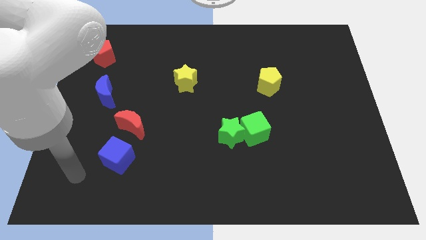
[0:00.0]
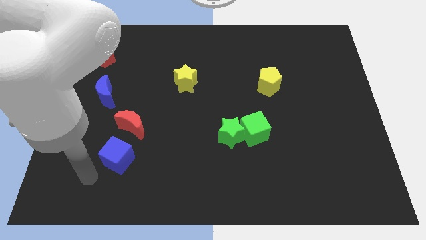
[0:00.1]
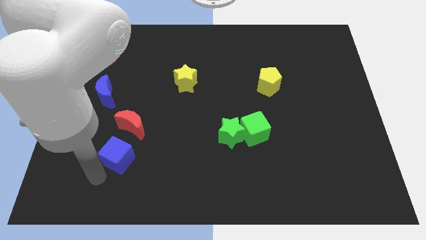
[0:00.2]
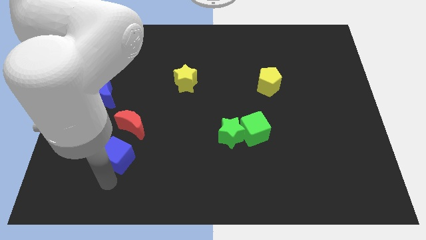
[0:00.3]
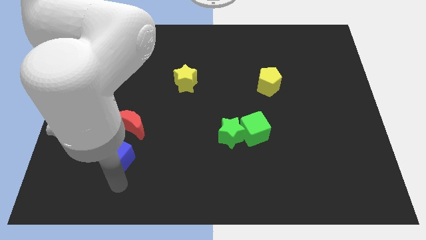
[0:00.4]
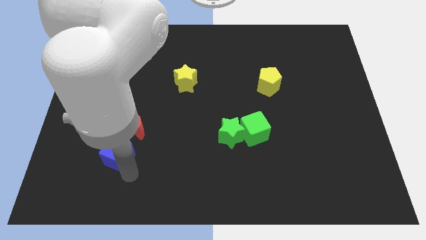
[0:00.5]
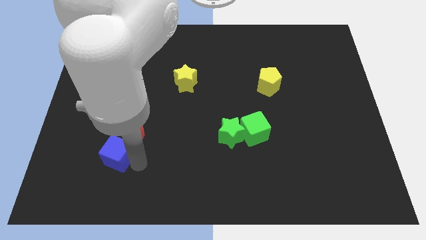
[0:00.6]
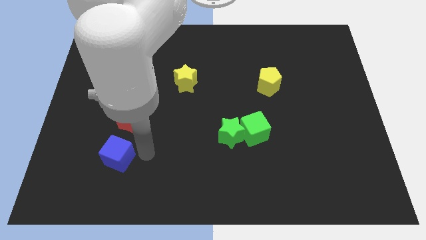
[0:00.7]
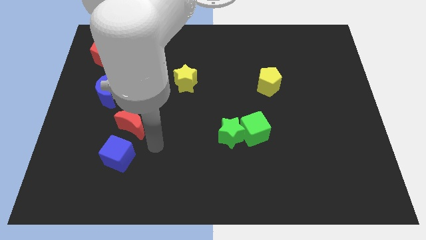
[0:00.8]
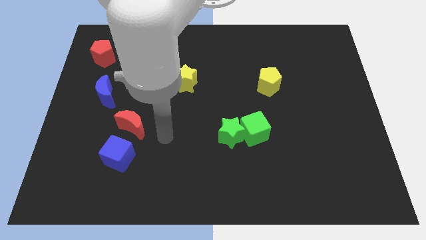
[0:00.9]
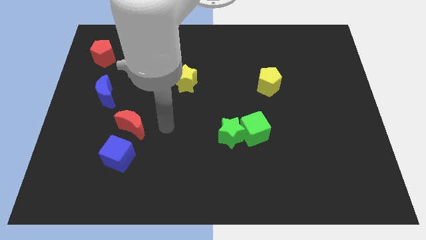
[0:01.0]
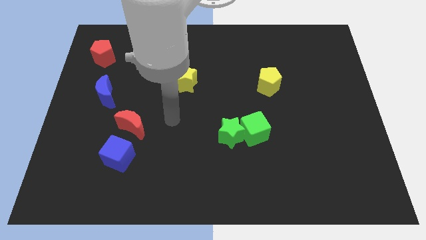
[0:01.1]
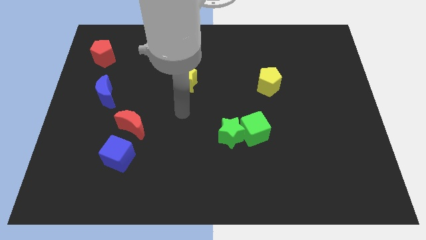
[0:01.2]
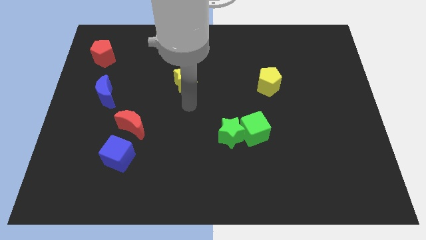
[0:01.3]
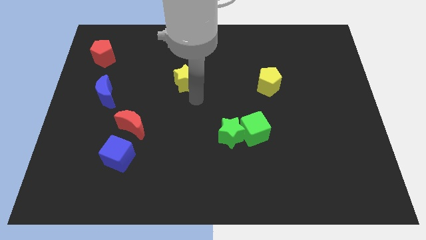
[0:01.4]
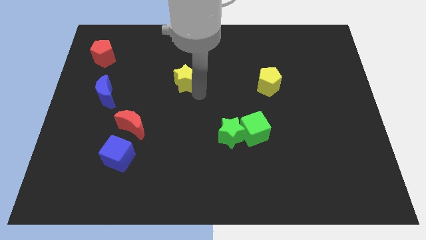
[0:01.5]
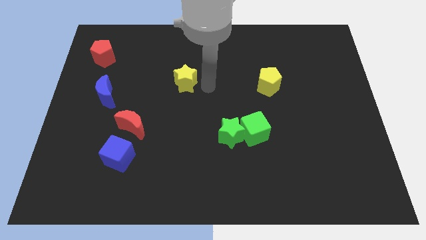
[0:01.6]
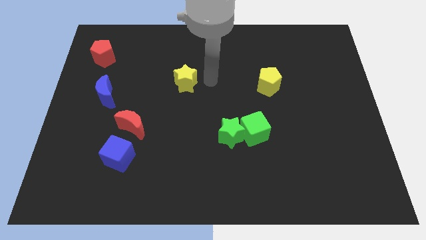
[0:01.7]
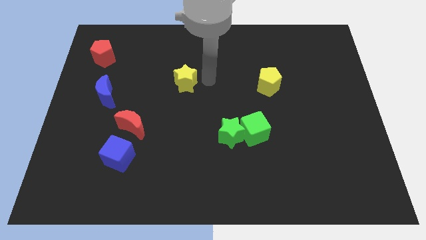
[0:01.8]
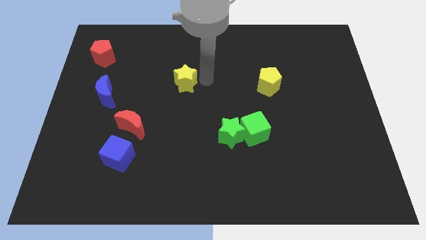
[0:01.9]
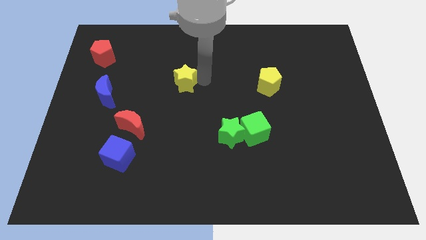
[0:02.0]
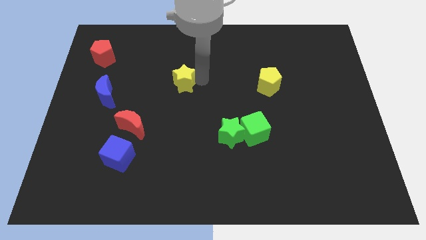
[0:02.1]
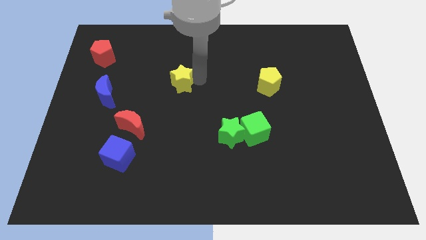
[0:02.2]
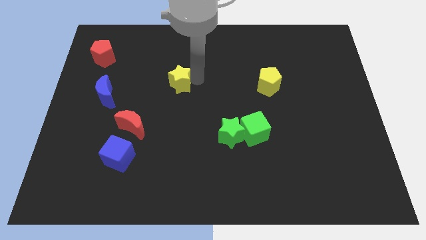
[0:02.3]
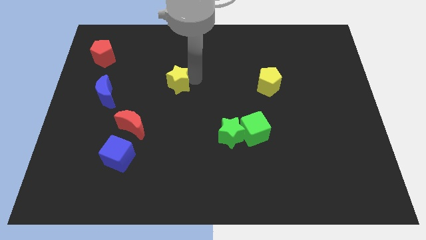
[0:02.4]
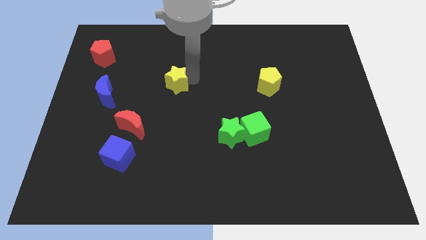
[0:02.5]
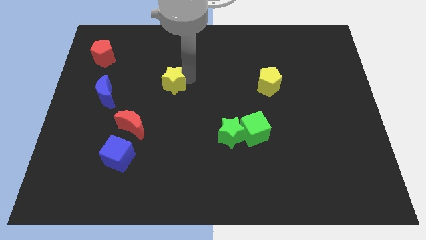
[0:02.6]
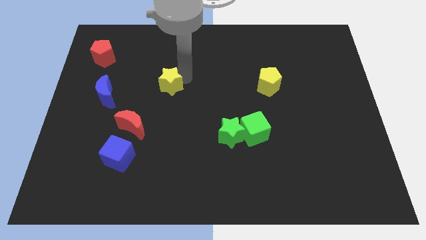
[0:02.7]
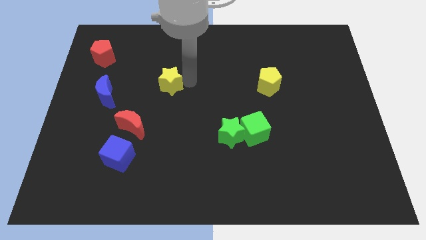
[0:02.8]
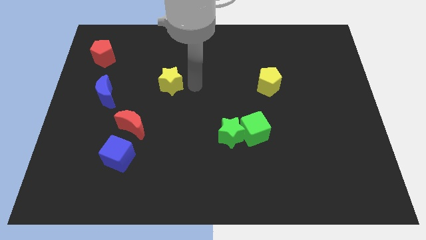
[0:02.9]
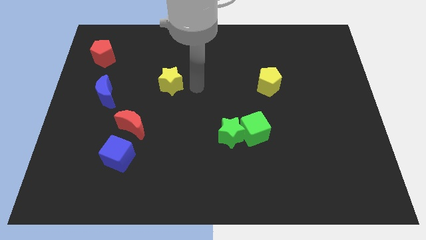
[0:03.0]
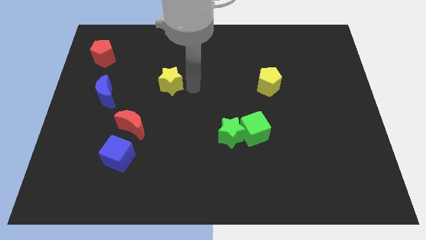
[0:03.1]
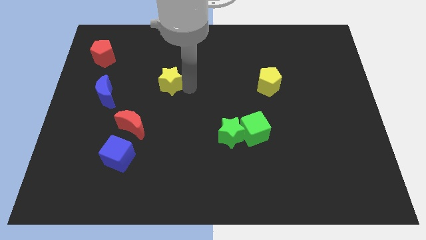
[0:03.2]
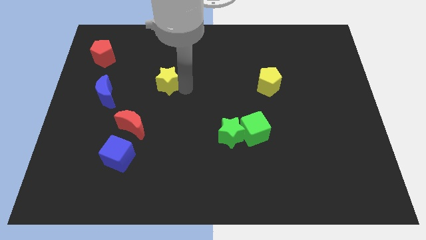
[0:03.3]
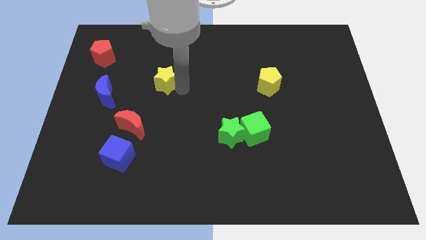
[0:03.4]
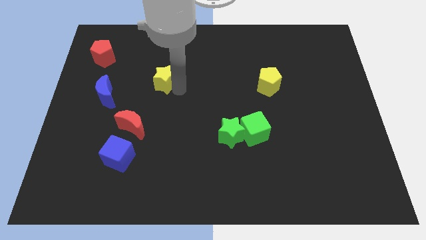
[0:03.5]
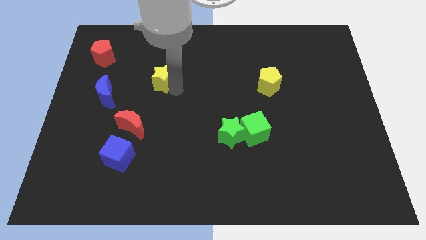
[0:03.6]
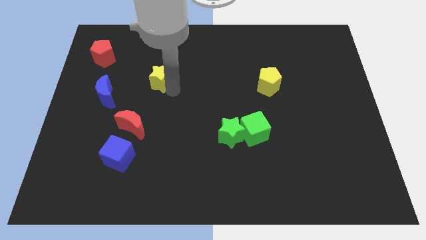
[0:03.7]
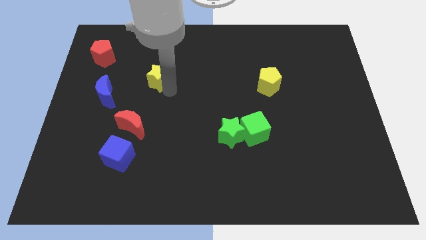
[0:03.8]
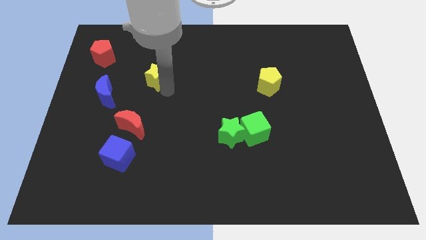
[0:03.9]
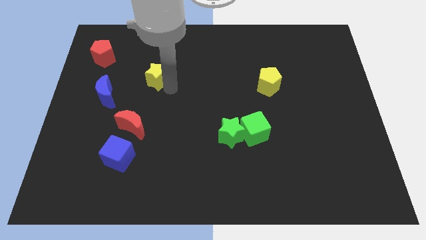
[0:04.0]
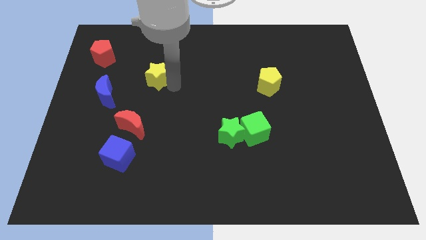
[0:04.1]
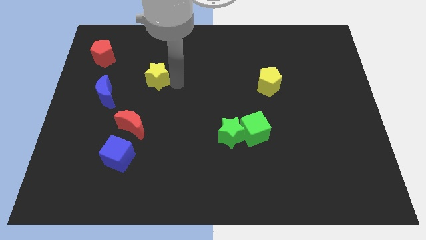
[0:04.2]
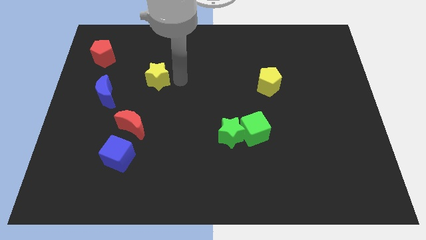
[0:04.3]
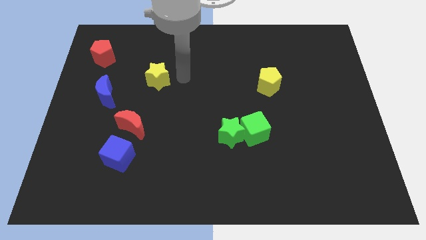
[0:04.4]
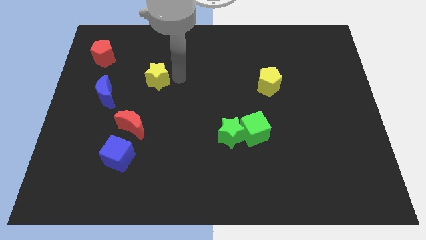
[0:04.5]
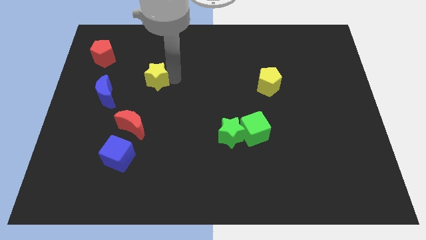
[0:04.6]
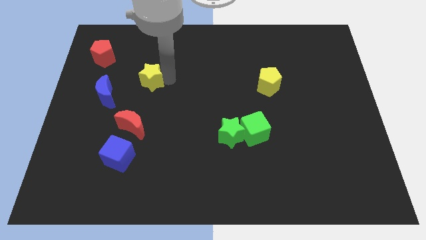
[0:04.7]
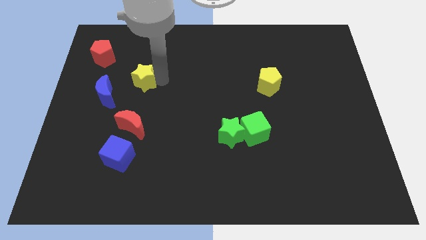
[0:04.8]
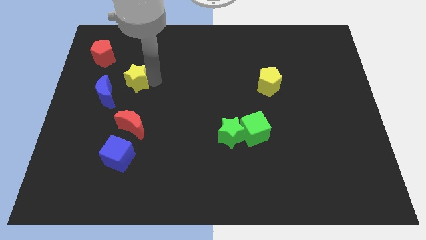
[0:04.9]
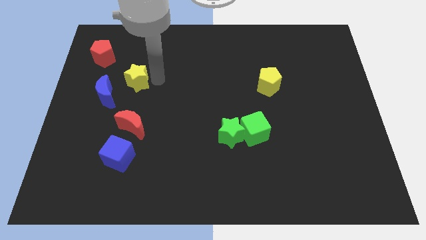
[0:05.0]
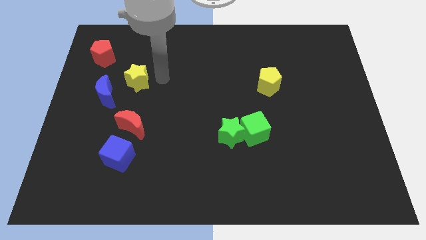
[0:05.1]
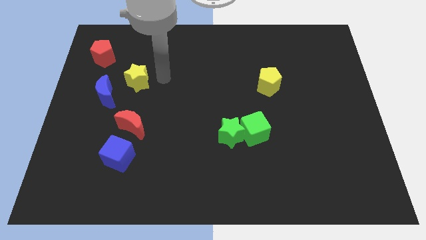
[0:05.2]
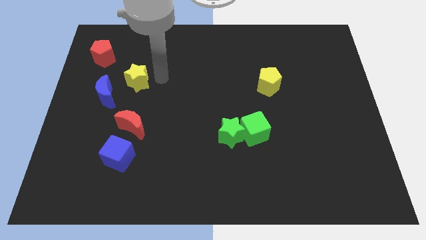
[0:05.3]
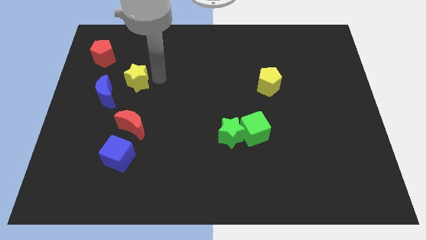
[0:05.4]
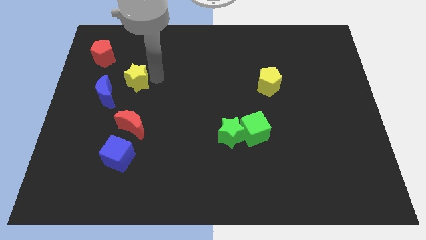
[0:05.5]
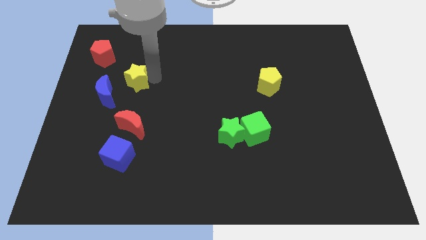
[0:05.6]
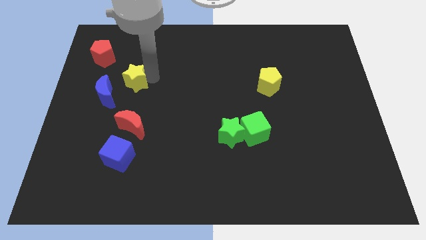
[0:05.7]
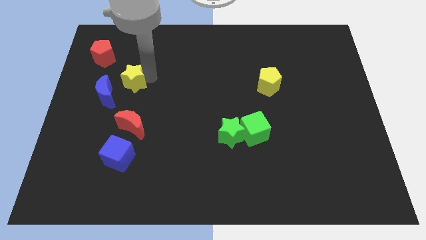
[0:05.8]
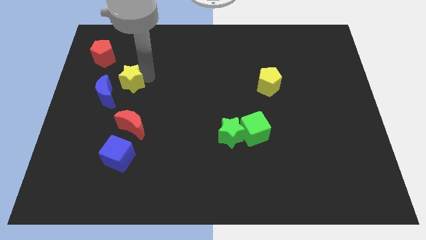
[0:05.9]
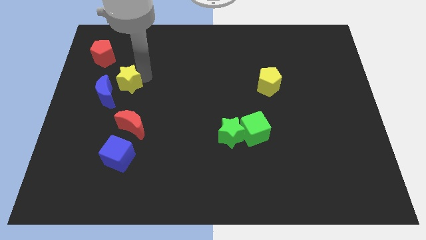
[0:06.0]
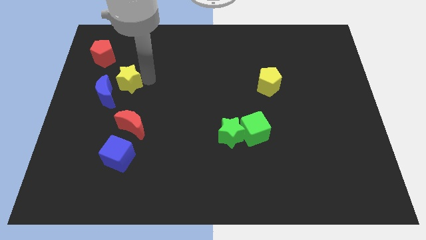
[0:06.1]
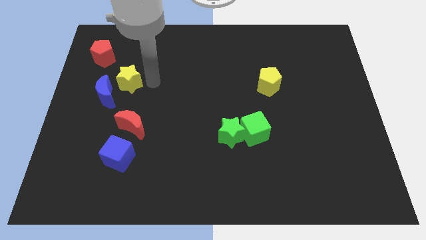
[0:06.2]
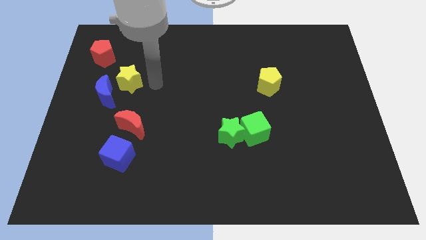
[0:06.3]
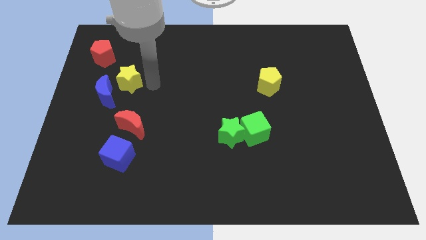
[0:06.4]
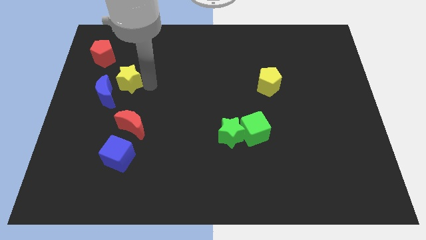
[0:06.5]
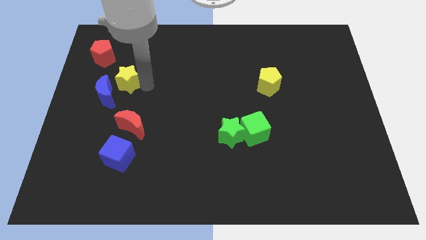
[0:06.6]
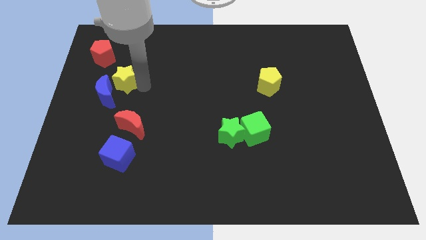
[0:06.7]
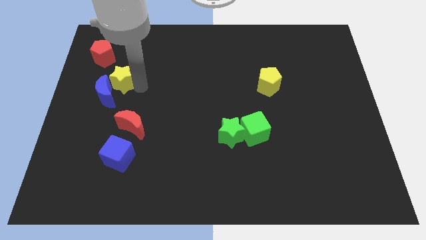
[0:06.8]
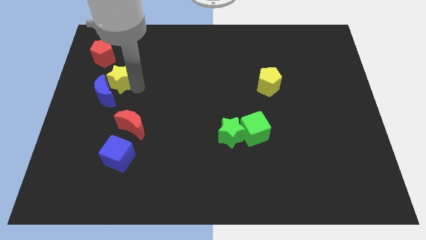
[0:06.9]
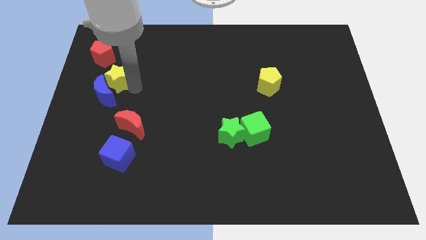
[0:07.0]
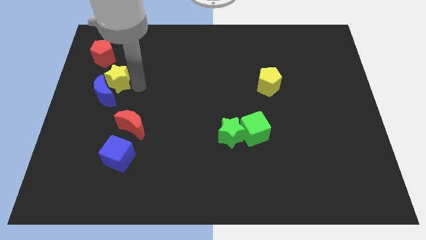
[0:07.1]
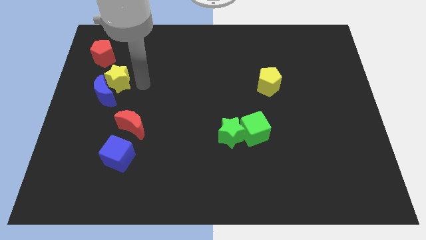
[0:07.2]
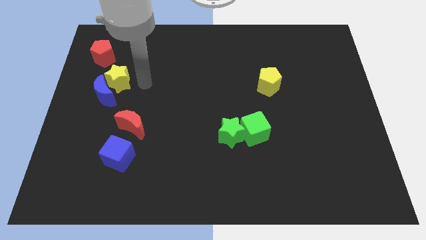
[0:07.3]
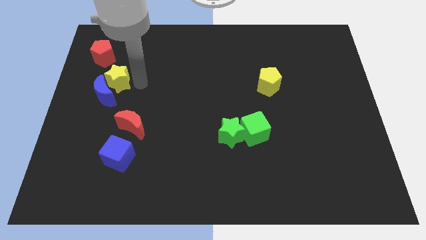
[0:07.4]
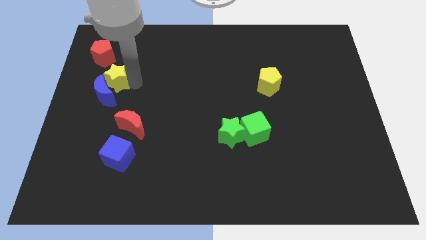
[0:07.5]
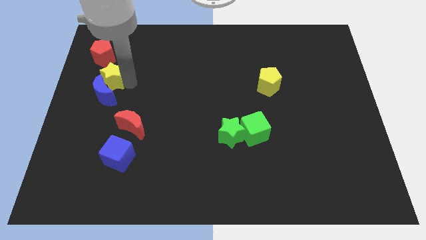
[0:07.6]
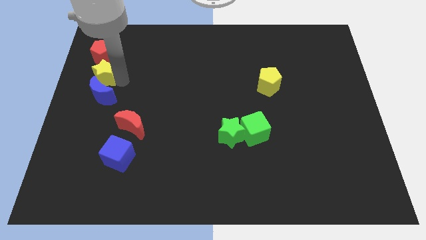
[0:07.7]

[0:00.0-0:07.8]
slide the yellow star to the left side
